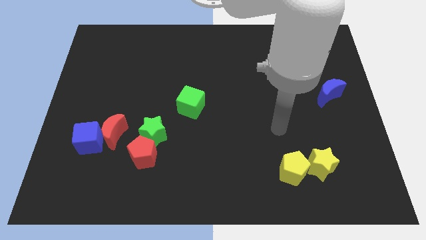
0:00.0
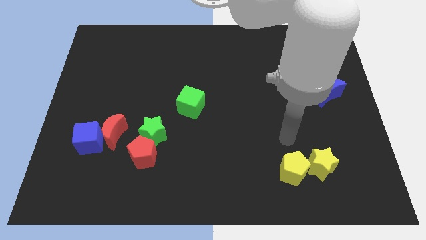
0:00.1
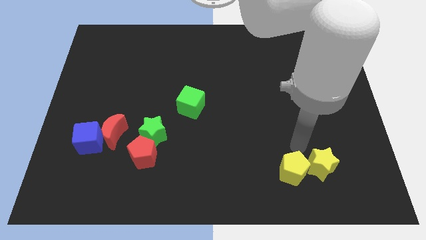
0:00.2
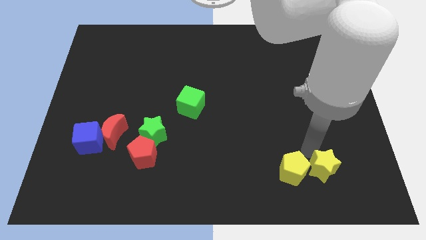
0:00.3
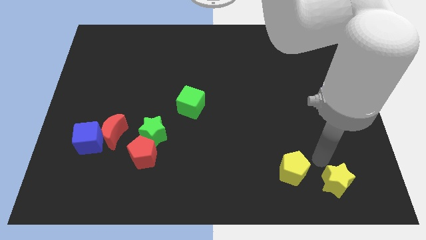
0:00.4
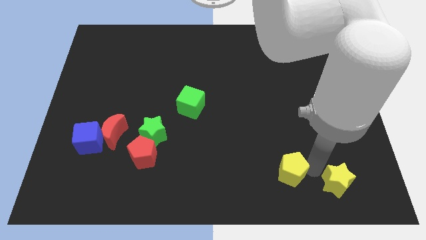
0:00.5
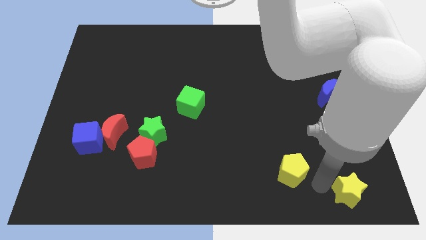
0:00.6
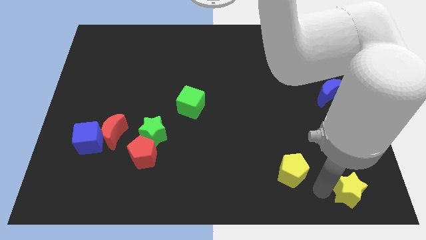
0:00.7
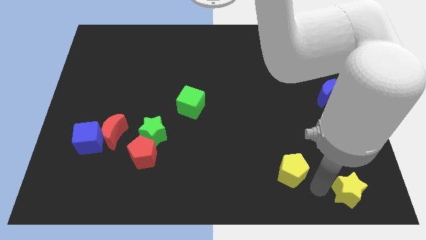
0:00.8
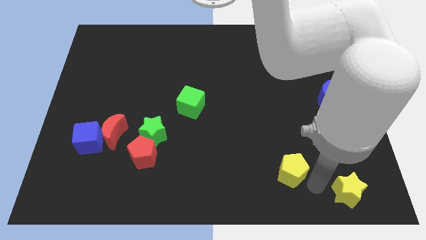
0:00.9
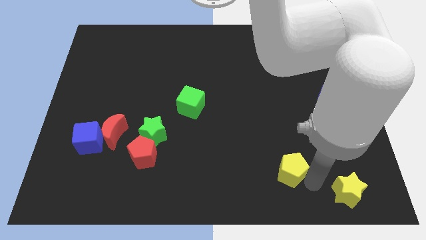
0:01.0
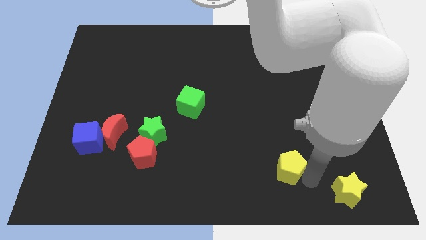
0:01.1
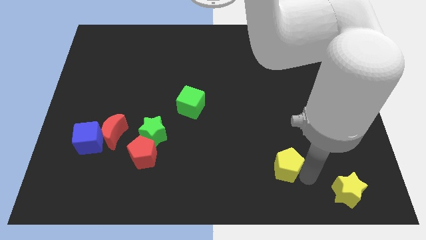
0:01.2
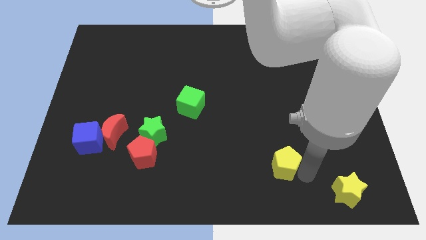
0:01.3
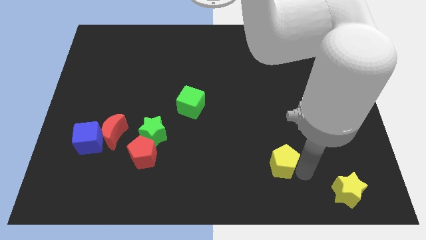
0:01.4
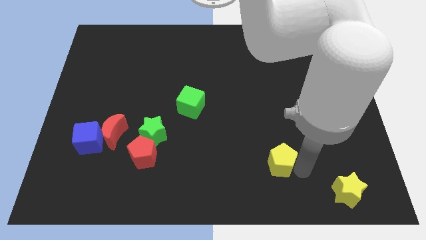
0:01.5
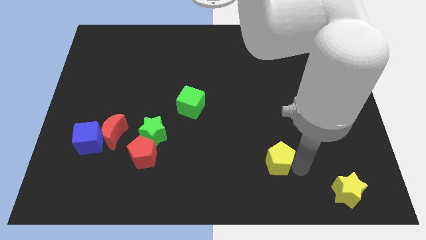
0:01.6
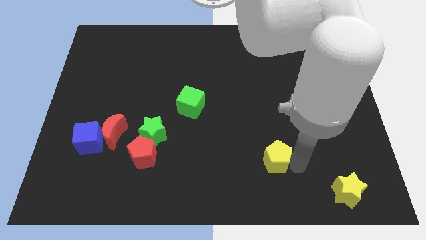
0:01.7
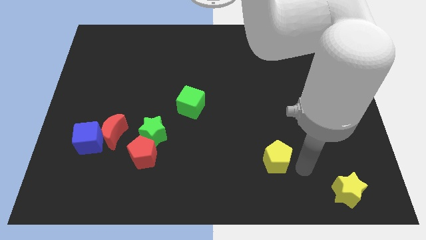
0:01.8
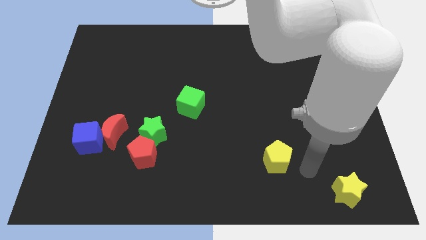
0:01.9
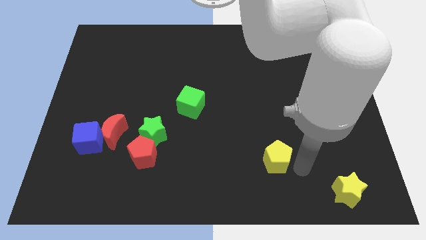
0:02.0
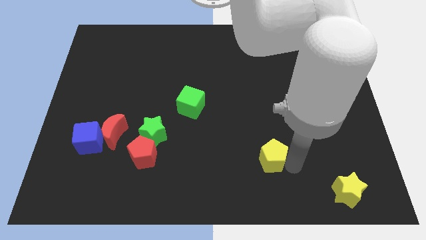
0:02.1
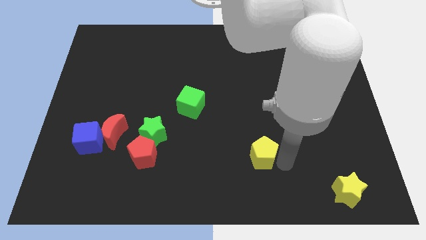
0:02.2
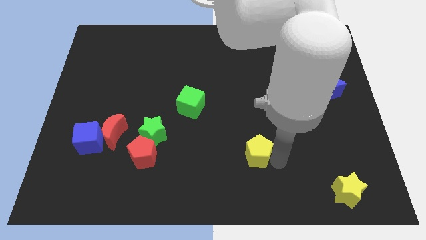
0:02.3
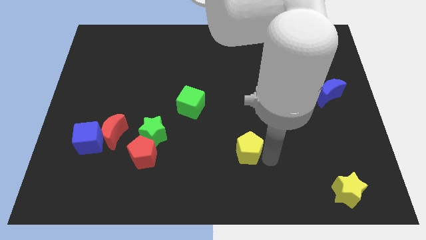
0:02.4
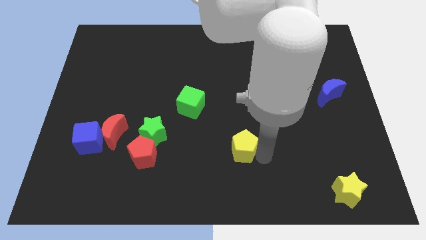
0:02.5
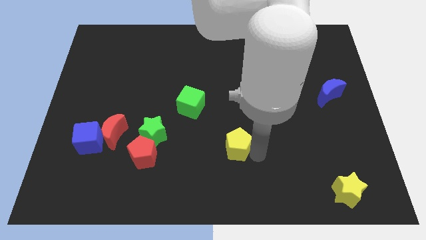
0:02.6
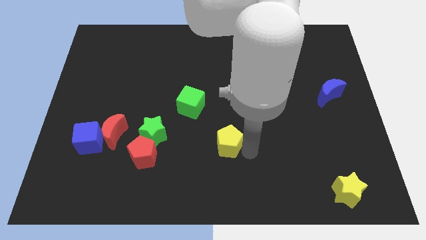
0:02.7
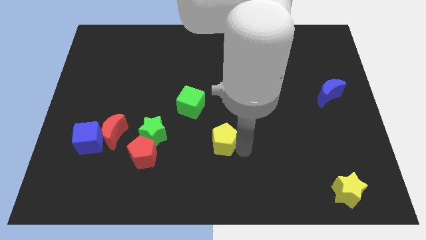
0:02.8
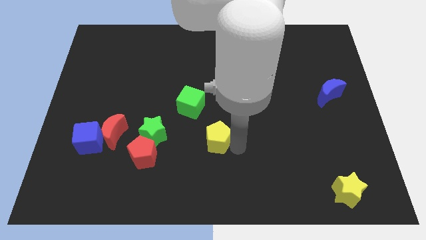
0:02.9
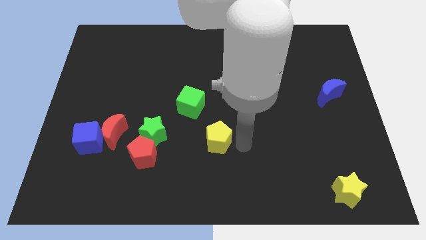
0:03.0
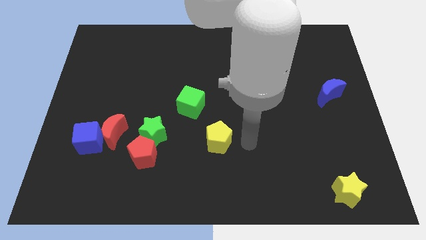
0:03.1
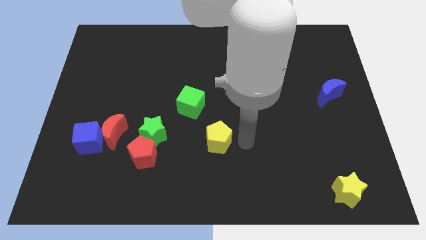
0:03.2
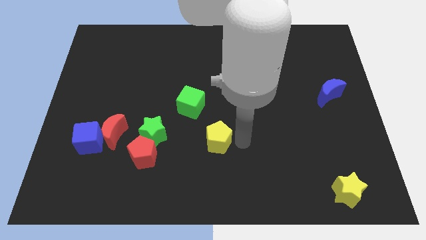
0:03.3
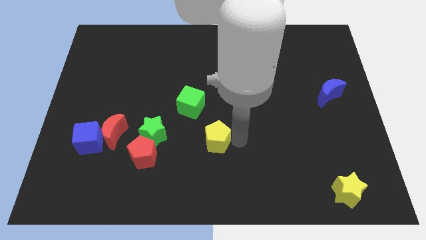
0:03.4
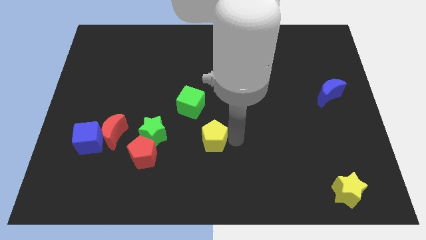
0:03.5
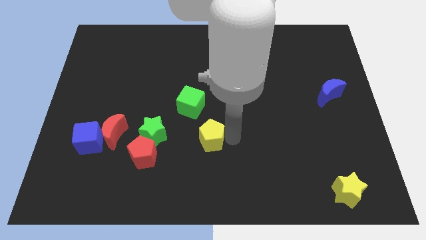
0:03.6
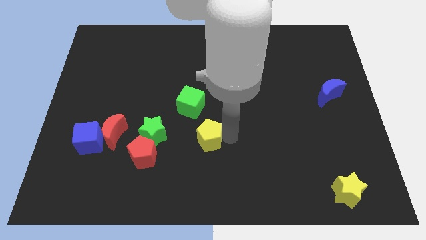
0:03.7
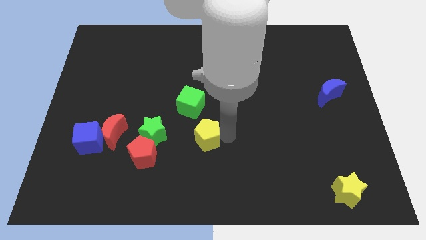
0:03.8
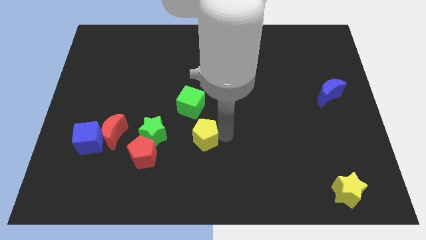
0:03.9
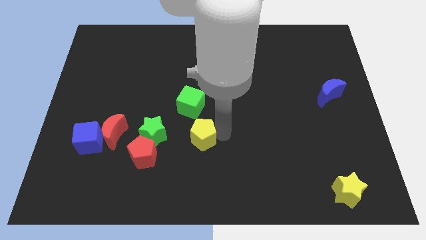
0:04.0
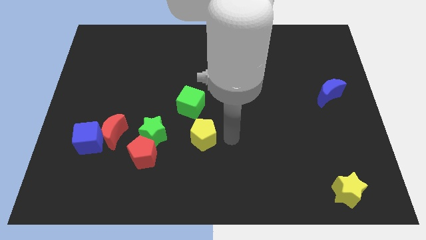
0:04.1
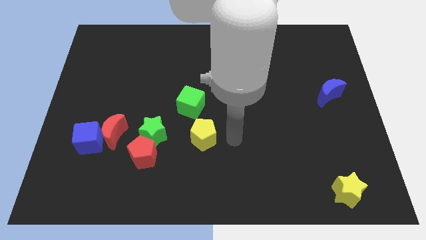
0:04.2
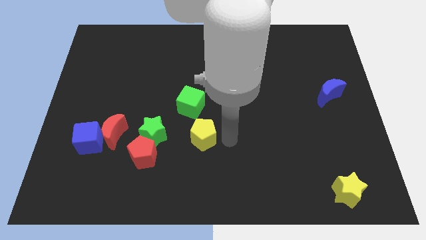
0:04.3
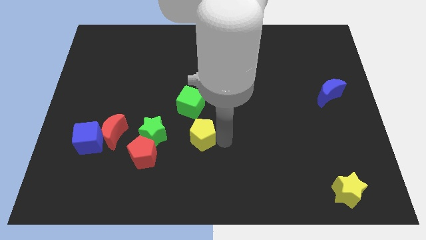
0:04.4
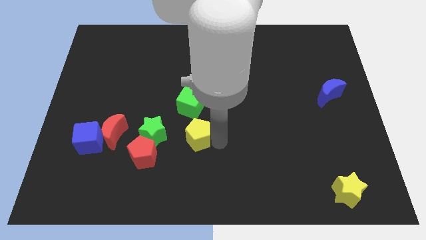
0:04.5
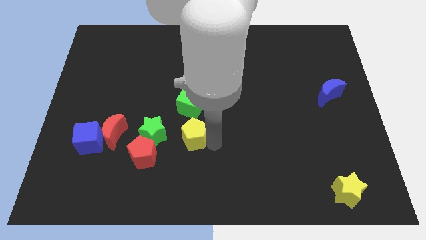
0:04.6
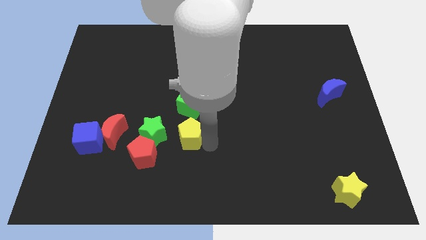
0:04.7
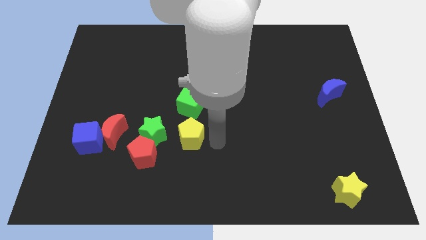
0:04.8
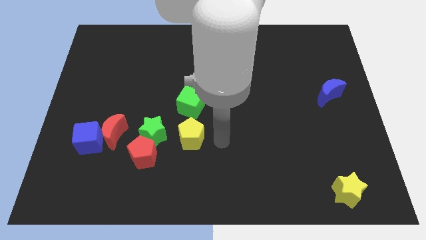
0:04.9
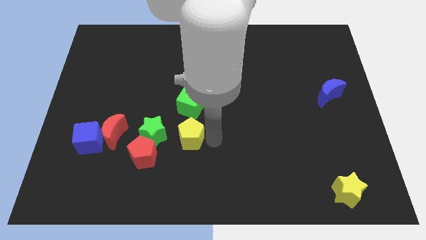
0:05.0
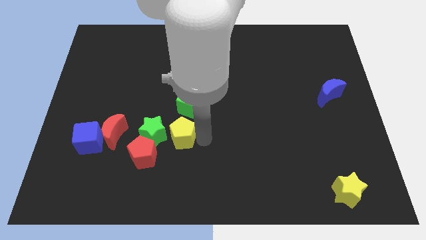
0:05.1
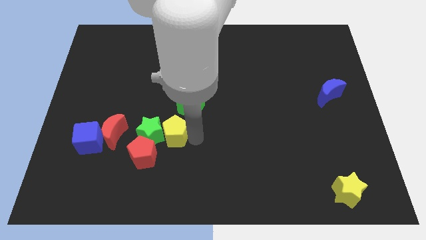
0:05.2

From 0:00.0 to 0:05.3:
slide the yellow pentagon next to the green star
